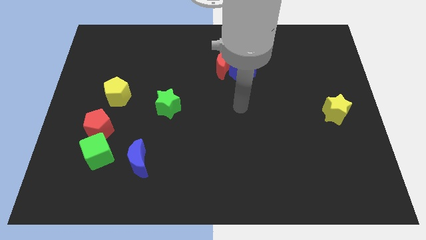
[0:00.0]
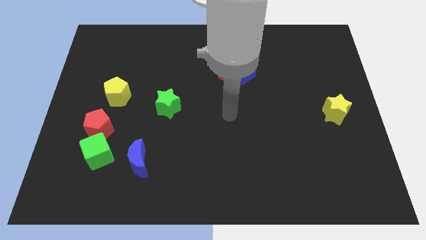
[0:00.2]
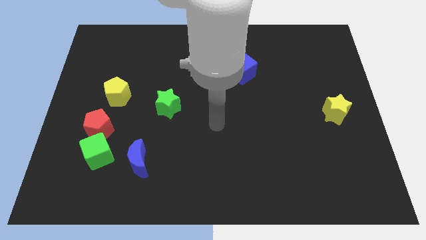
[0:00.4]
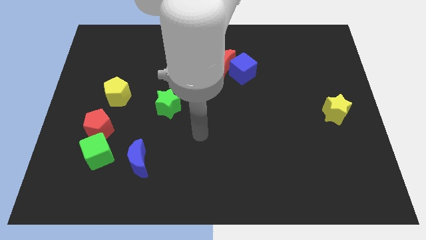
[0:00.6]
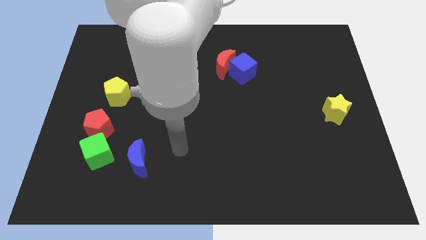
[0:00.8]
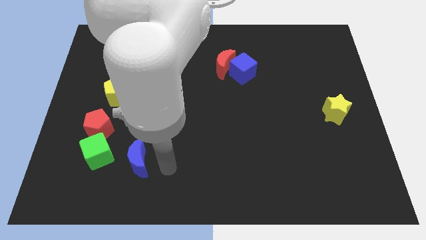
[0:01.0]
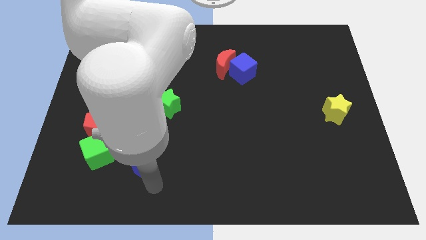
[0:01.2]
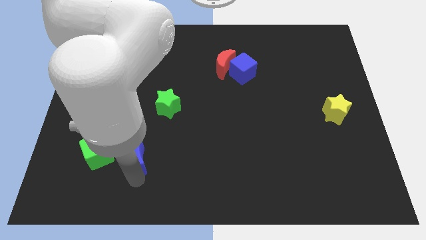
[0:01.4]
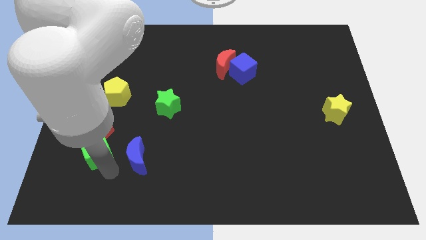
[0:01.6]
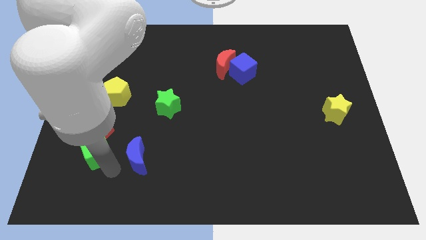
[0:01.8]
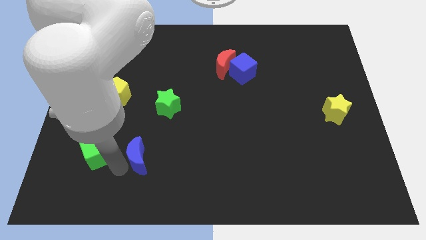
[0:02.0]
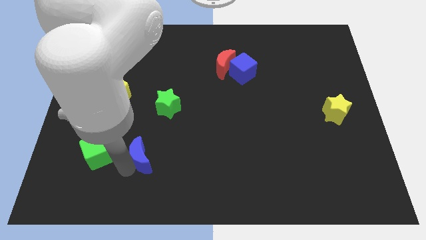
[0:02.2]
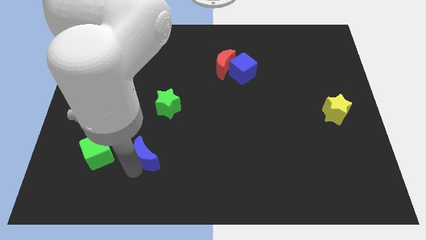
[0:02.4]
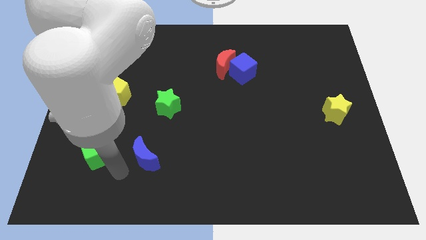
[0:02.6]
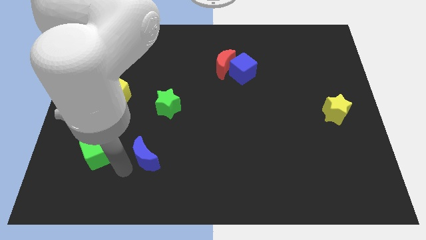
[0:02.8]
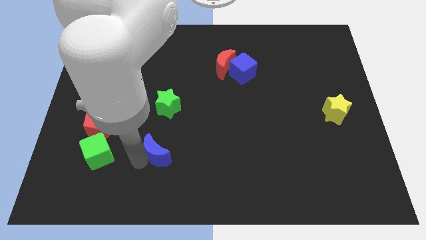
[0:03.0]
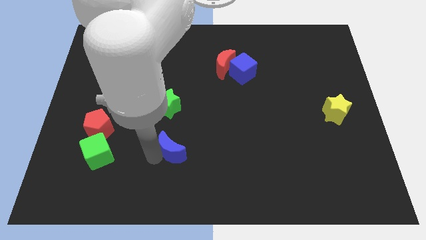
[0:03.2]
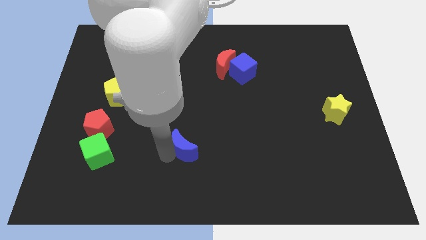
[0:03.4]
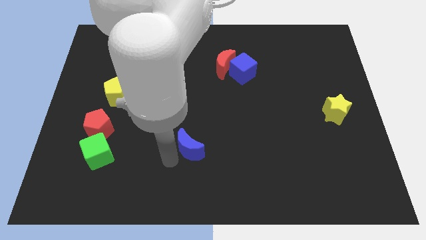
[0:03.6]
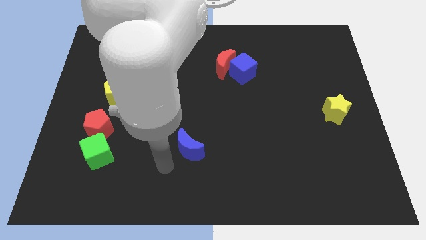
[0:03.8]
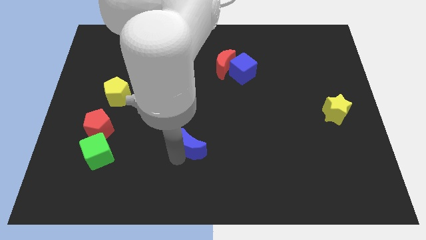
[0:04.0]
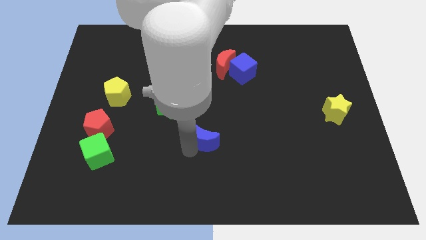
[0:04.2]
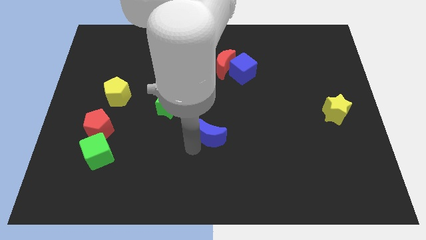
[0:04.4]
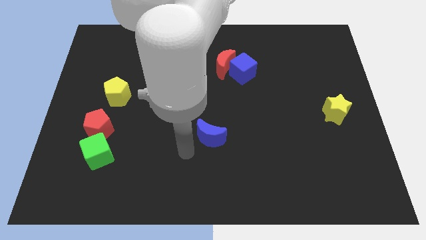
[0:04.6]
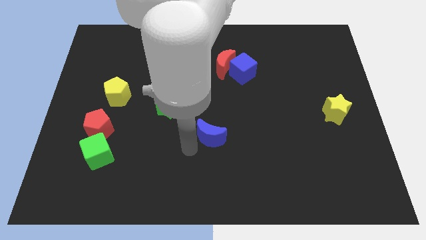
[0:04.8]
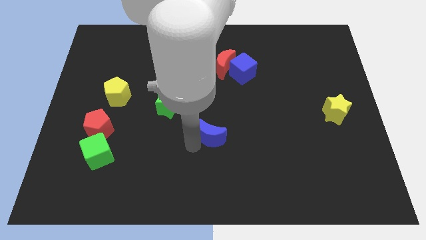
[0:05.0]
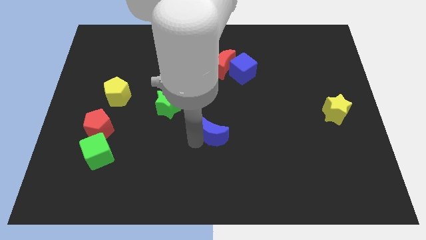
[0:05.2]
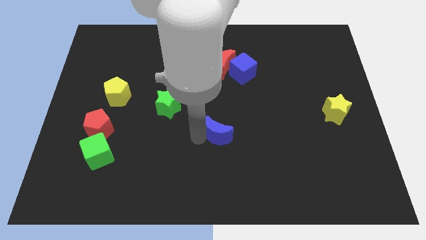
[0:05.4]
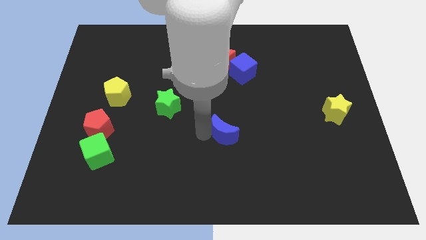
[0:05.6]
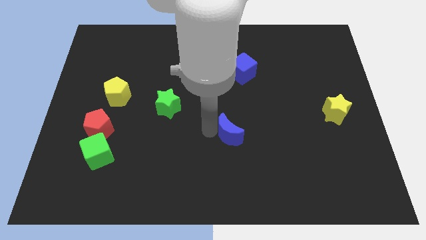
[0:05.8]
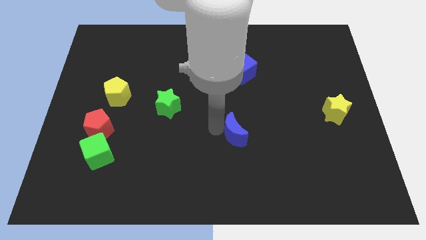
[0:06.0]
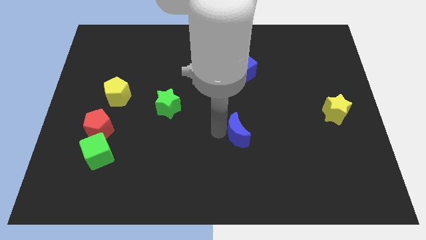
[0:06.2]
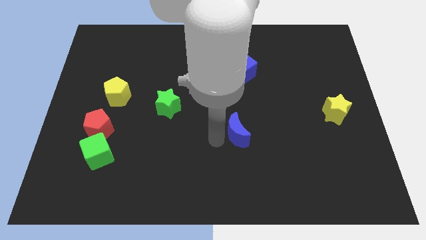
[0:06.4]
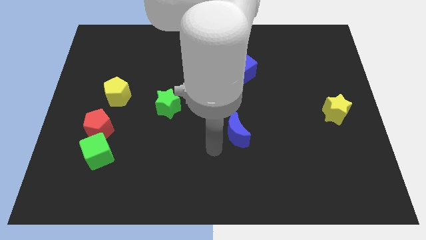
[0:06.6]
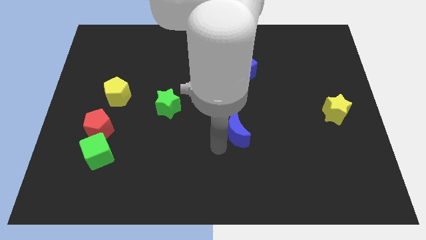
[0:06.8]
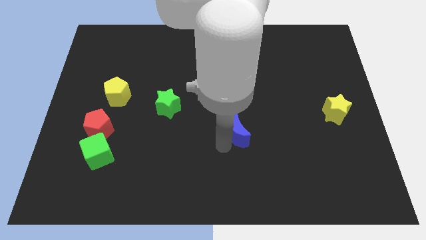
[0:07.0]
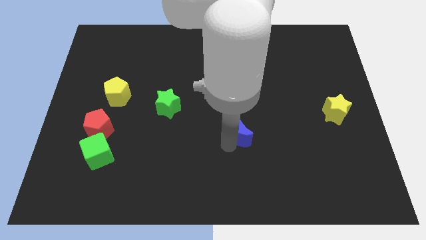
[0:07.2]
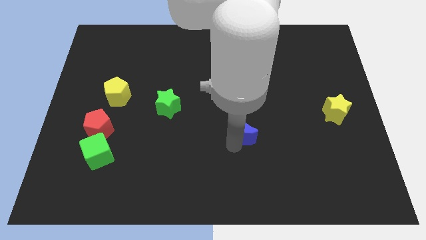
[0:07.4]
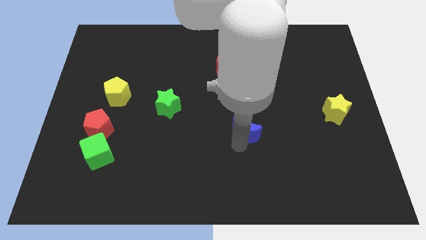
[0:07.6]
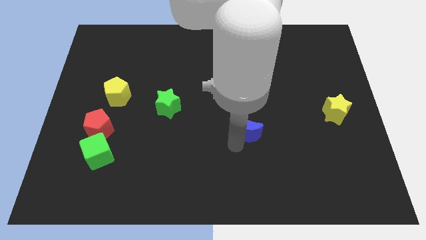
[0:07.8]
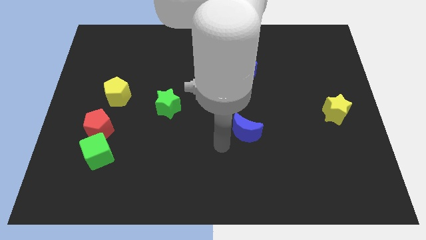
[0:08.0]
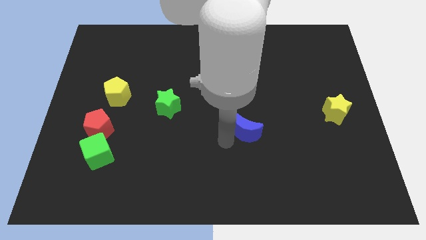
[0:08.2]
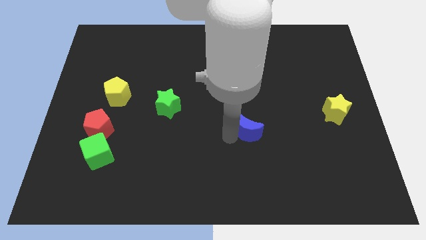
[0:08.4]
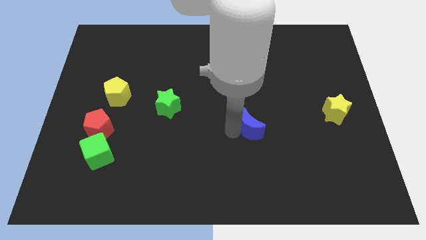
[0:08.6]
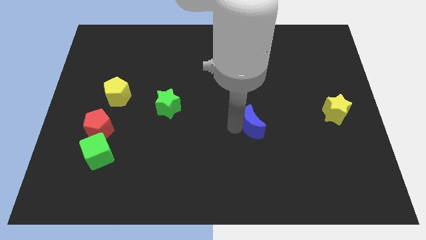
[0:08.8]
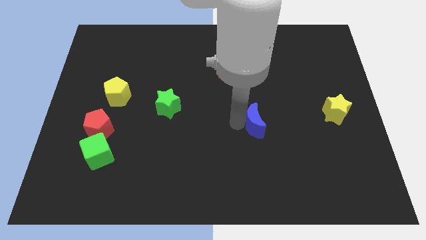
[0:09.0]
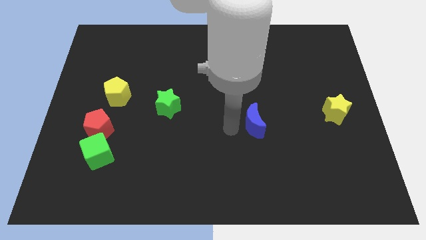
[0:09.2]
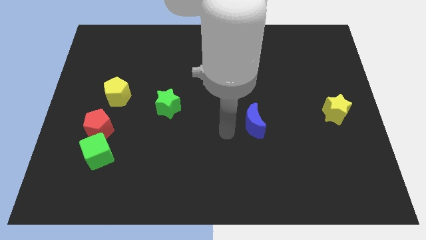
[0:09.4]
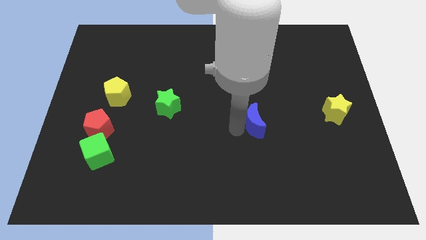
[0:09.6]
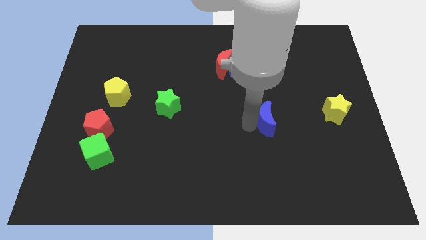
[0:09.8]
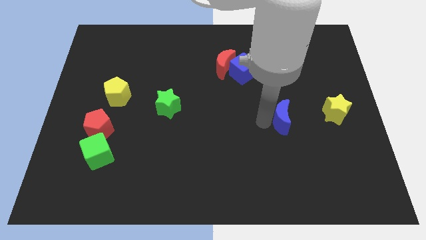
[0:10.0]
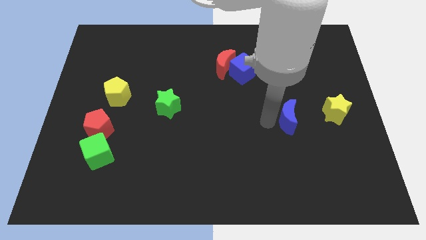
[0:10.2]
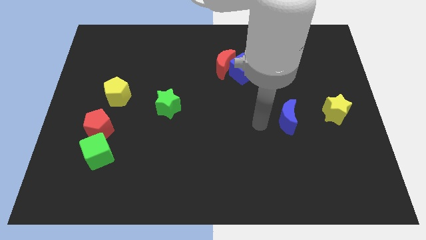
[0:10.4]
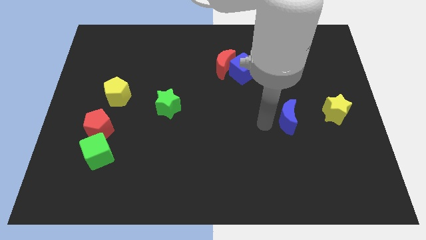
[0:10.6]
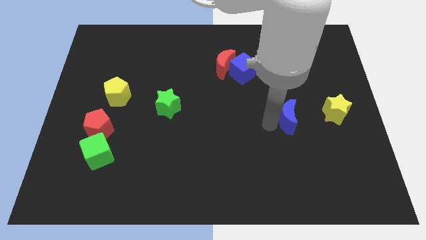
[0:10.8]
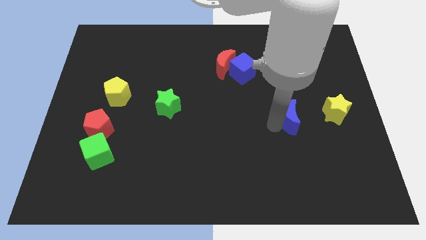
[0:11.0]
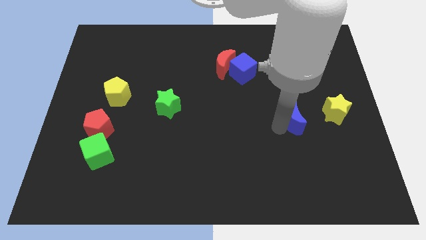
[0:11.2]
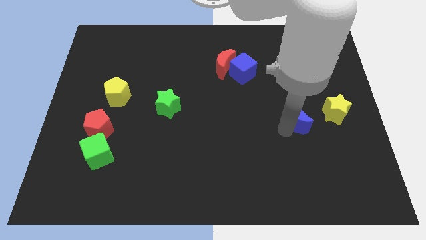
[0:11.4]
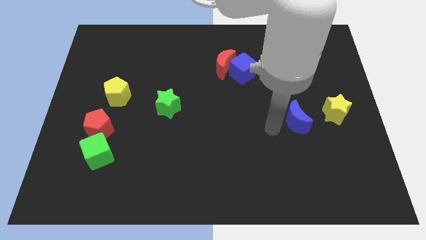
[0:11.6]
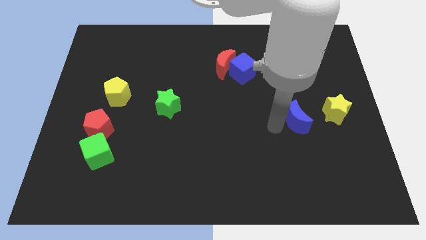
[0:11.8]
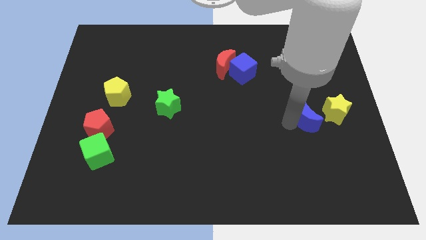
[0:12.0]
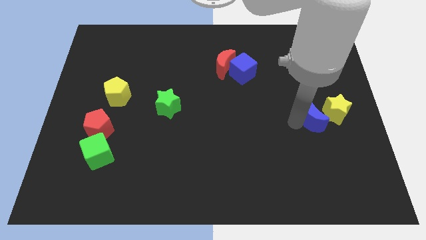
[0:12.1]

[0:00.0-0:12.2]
put the blue moon next to the yellow star

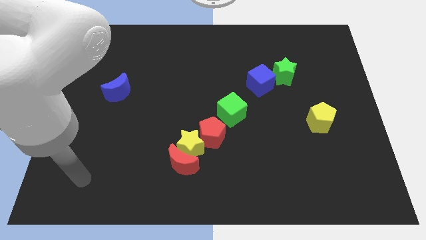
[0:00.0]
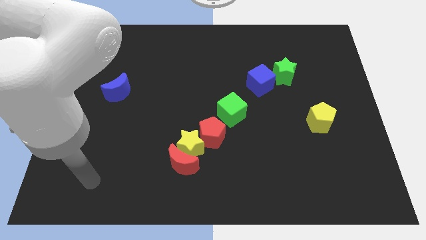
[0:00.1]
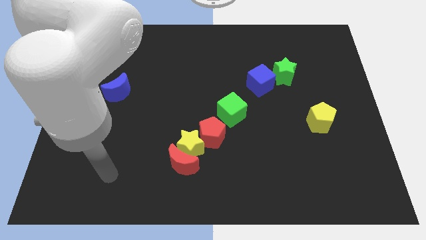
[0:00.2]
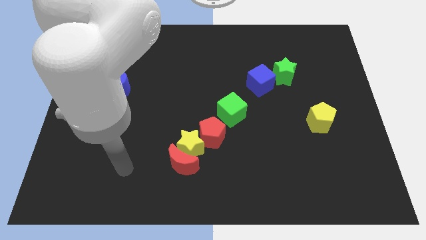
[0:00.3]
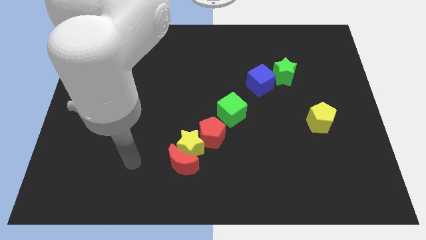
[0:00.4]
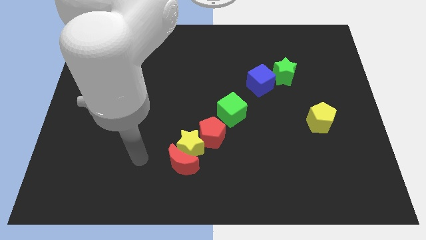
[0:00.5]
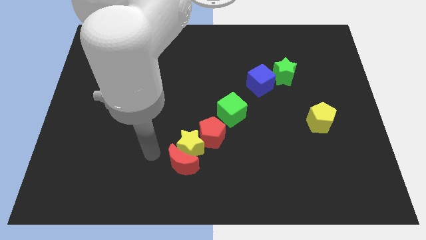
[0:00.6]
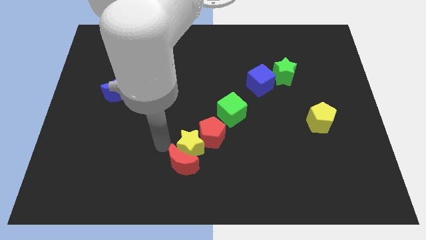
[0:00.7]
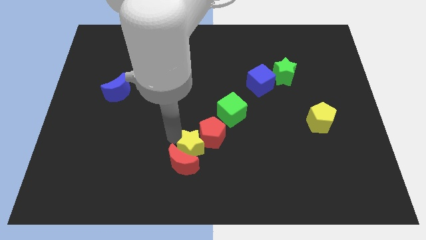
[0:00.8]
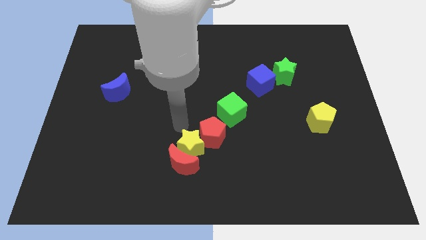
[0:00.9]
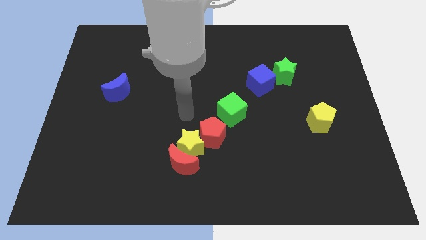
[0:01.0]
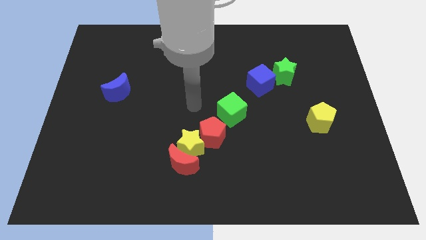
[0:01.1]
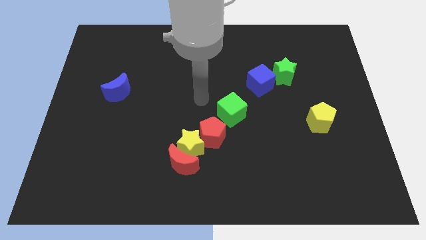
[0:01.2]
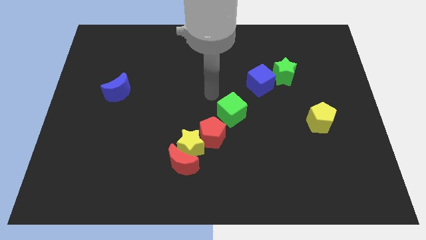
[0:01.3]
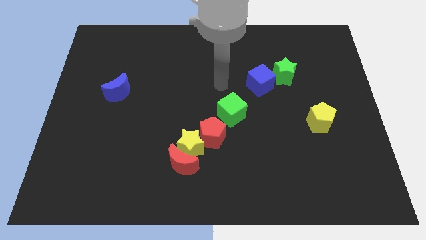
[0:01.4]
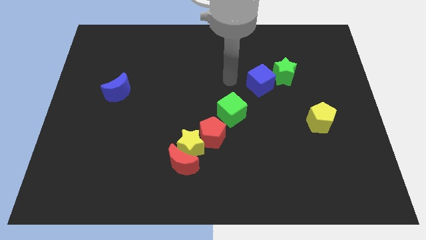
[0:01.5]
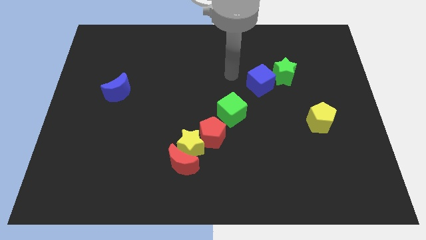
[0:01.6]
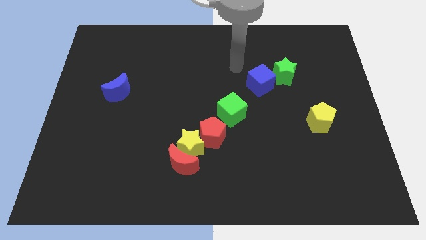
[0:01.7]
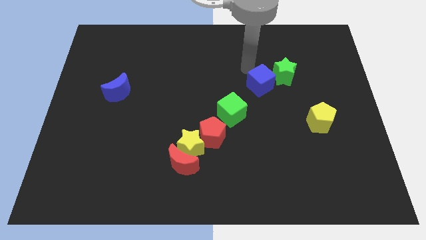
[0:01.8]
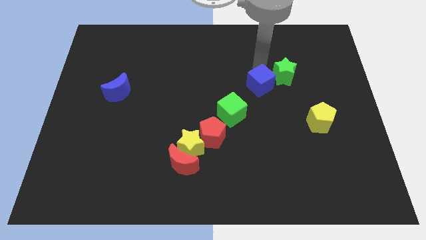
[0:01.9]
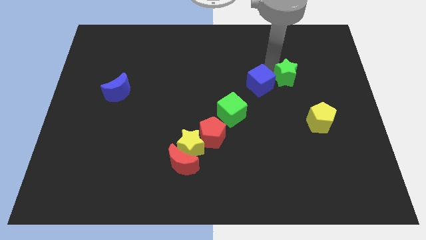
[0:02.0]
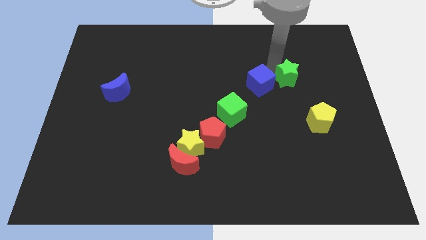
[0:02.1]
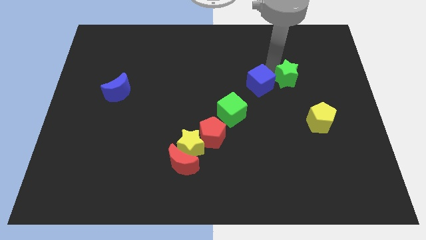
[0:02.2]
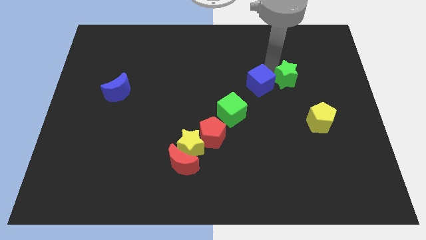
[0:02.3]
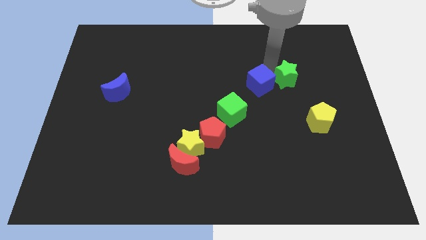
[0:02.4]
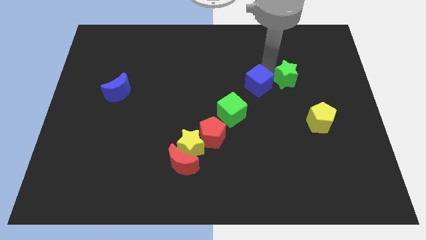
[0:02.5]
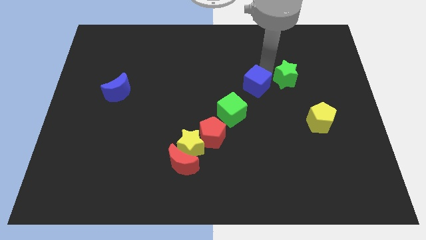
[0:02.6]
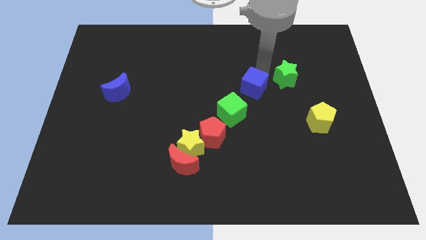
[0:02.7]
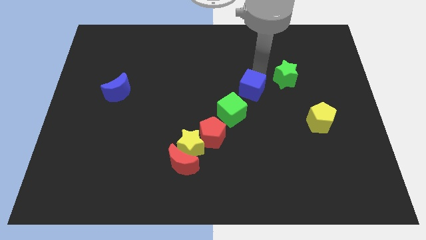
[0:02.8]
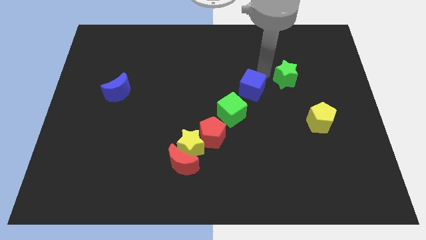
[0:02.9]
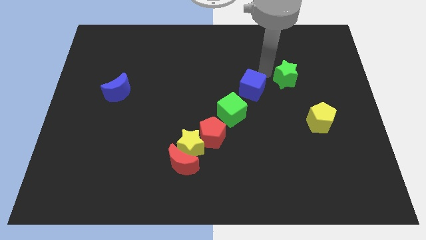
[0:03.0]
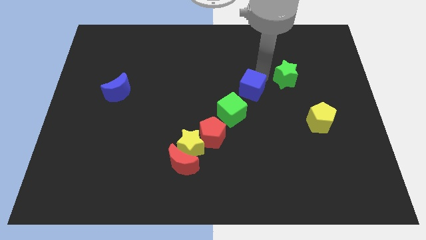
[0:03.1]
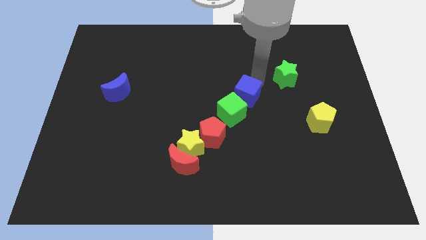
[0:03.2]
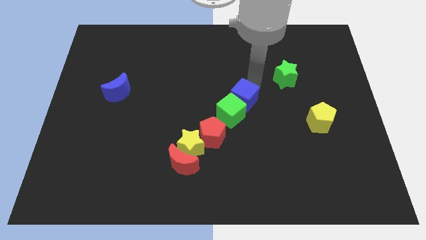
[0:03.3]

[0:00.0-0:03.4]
put the blue cube towards the green cube
